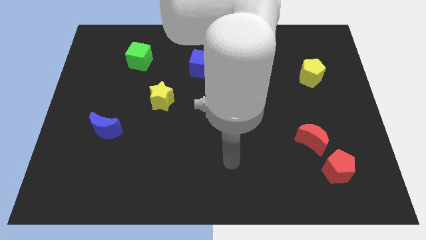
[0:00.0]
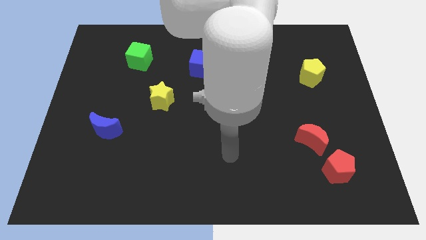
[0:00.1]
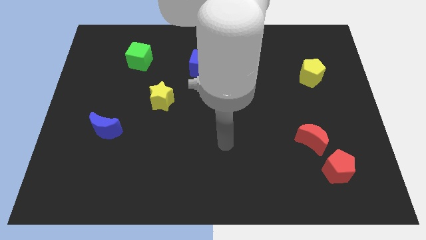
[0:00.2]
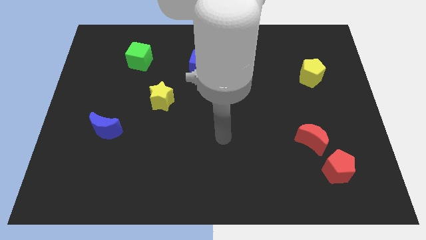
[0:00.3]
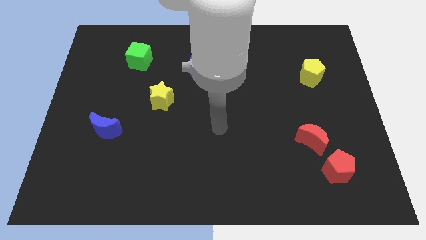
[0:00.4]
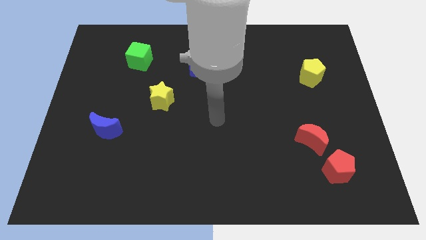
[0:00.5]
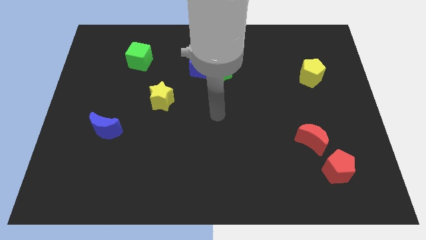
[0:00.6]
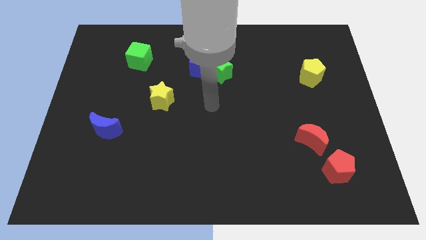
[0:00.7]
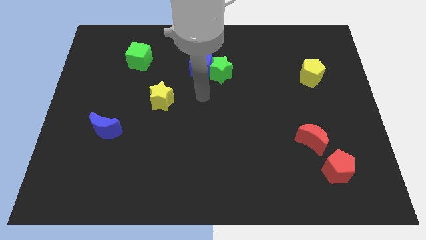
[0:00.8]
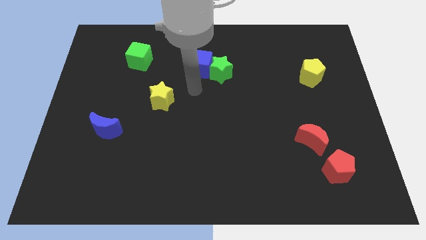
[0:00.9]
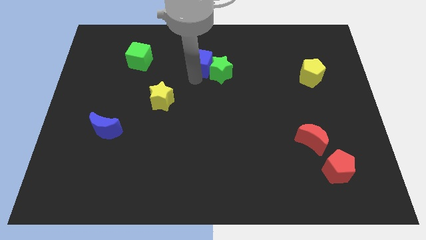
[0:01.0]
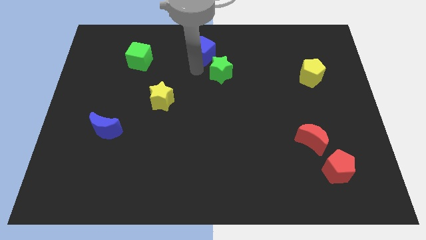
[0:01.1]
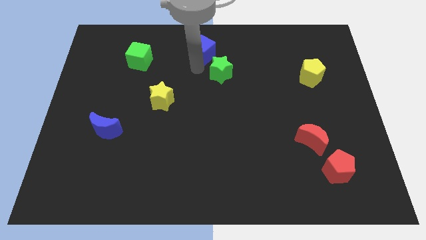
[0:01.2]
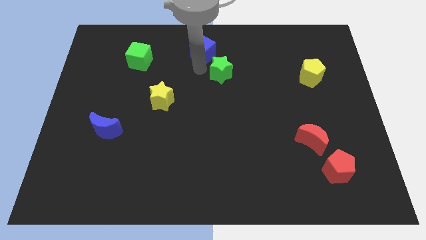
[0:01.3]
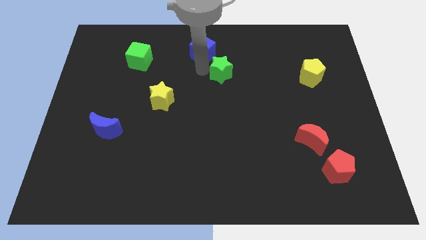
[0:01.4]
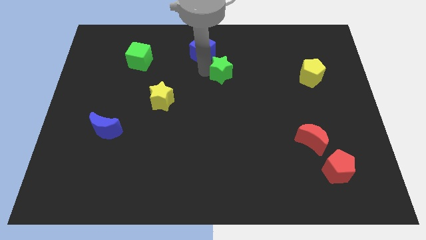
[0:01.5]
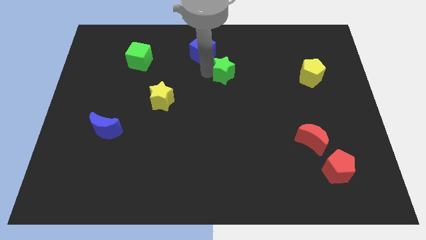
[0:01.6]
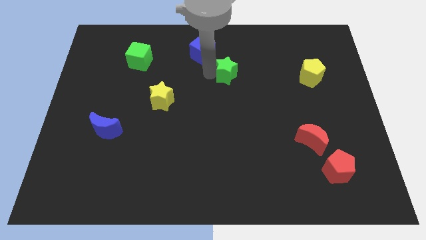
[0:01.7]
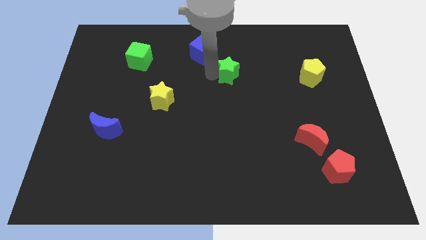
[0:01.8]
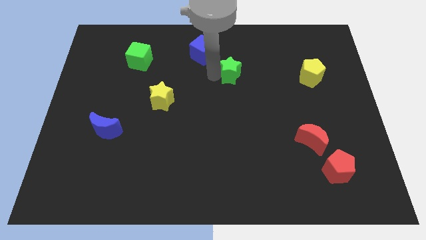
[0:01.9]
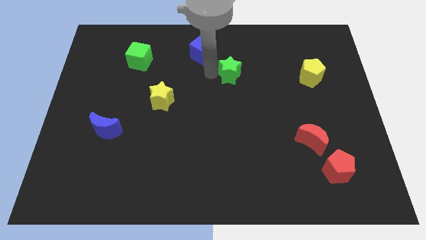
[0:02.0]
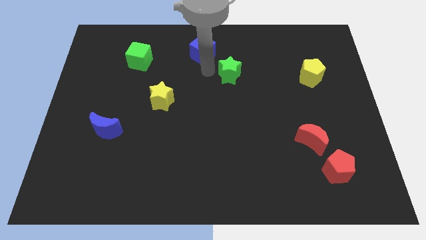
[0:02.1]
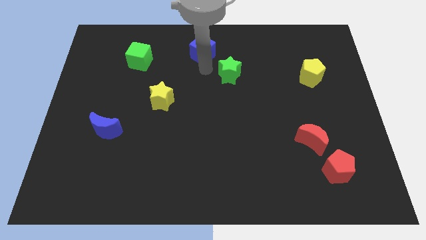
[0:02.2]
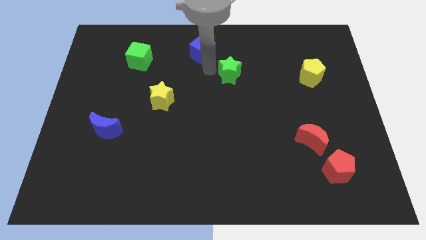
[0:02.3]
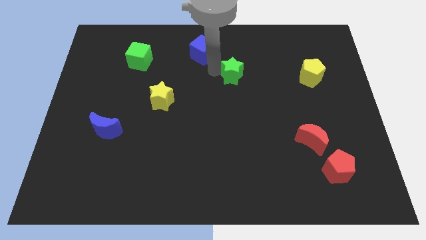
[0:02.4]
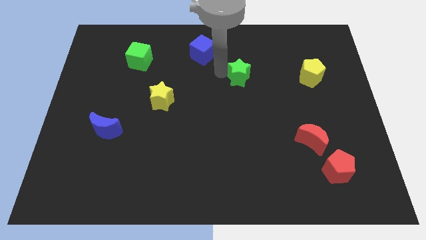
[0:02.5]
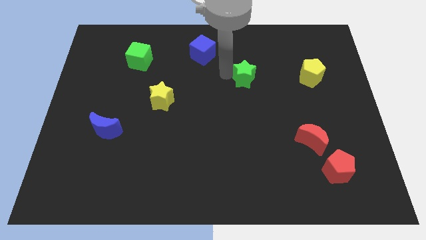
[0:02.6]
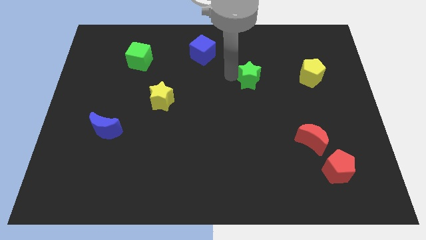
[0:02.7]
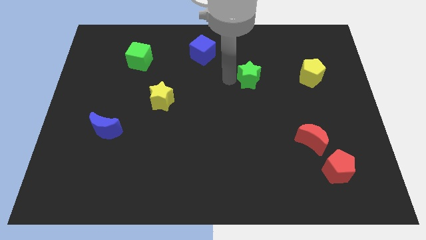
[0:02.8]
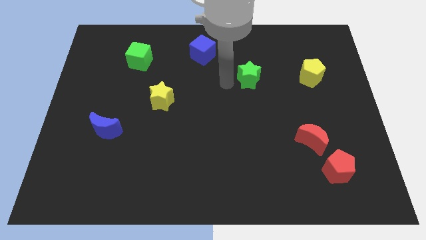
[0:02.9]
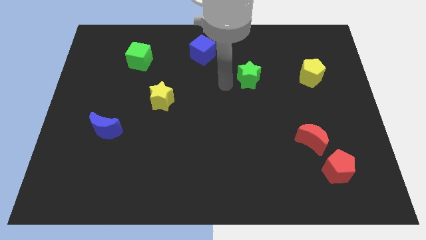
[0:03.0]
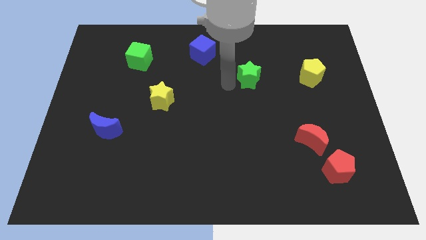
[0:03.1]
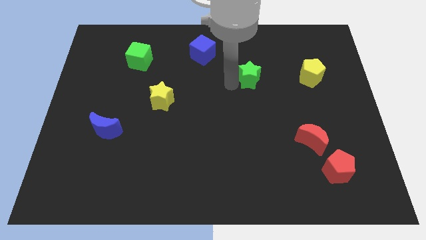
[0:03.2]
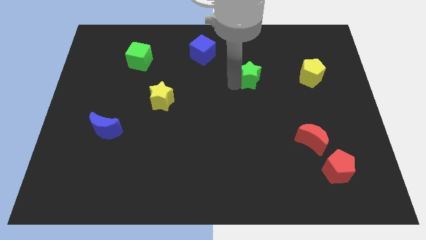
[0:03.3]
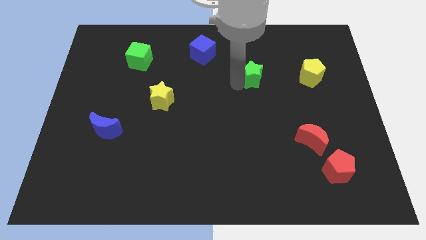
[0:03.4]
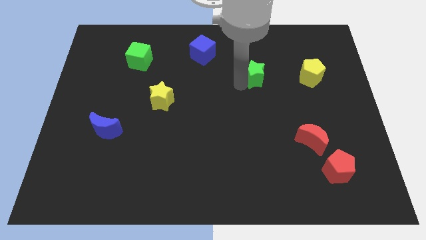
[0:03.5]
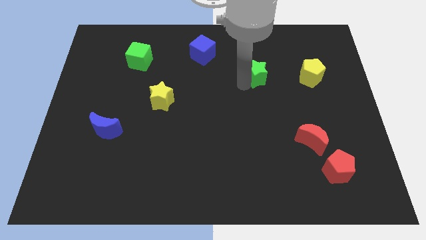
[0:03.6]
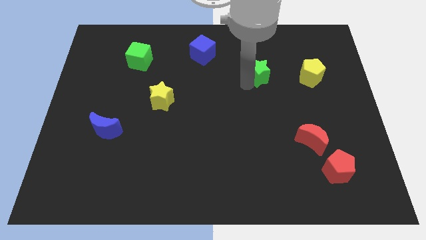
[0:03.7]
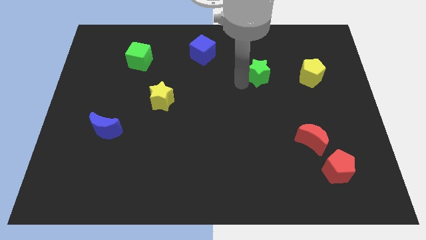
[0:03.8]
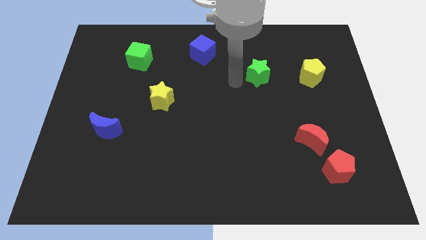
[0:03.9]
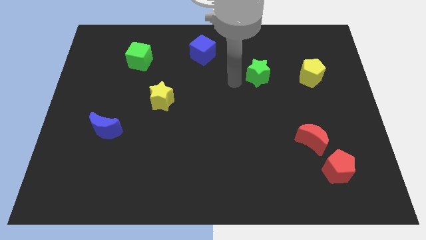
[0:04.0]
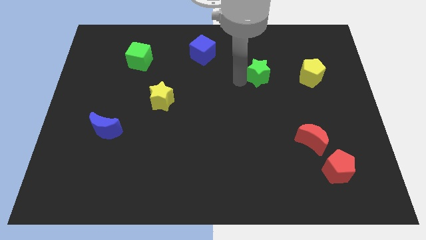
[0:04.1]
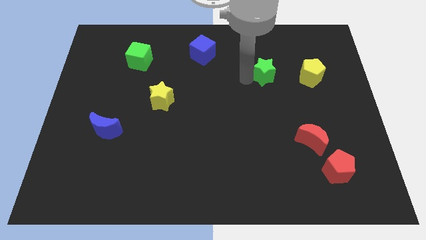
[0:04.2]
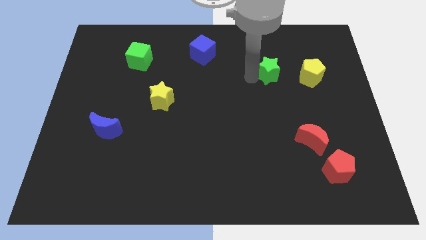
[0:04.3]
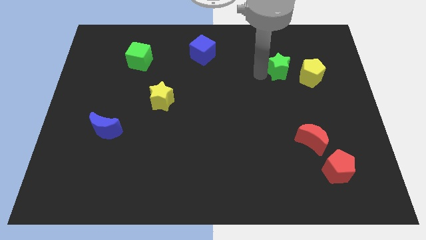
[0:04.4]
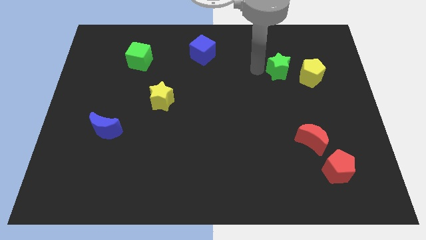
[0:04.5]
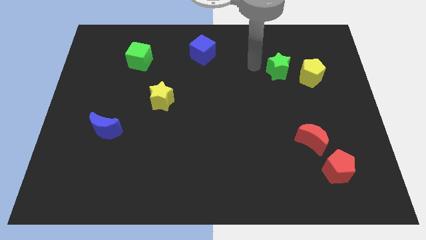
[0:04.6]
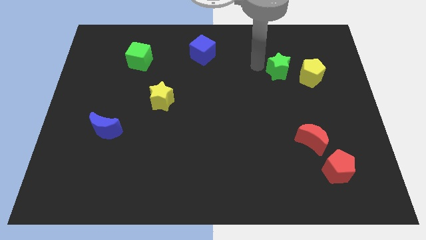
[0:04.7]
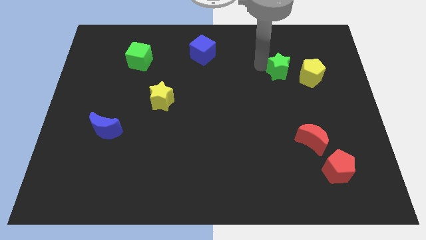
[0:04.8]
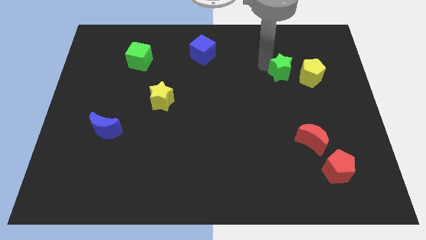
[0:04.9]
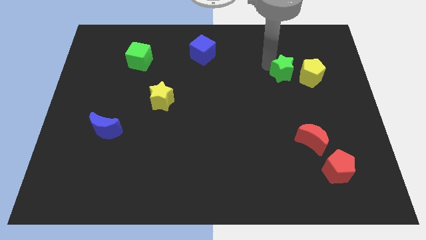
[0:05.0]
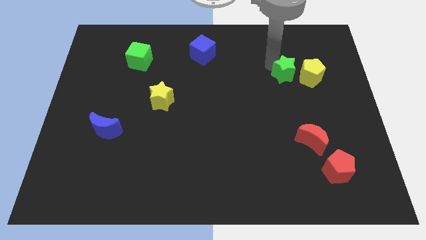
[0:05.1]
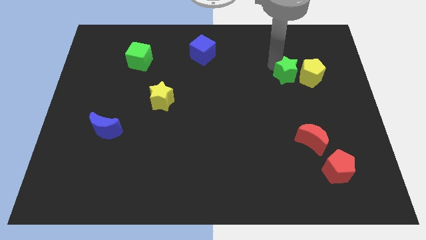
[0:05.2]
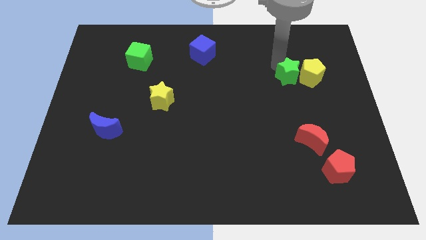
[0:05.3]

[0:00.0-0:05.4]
slide the green star towards the yellow pentagon

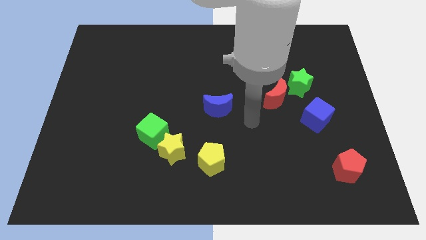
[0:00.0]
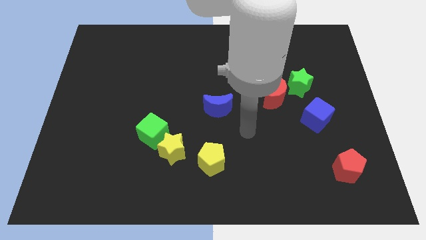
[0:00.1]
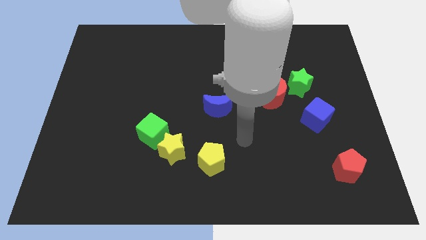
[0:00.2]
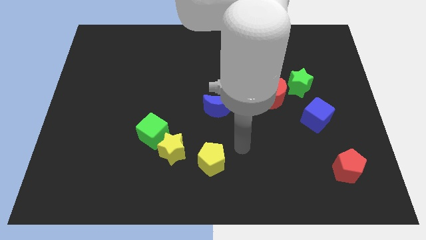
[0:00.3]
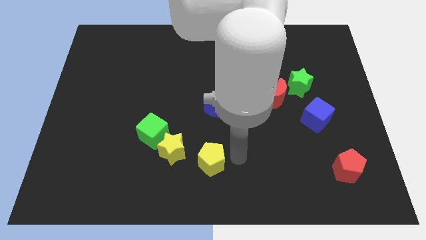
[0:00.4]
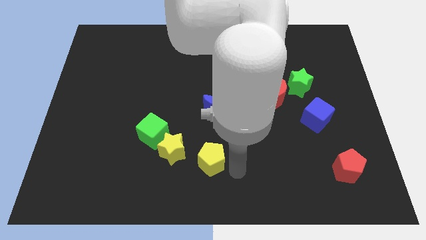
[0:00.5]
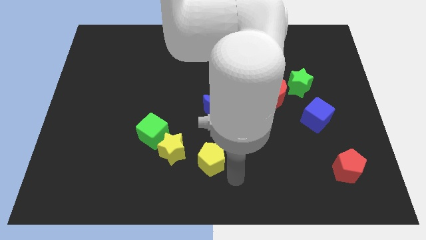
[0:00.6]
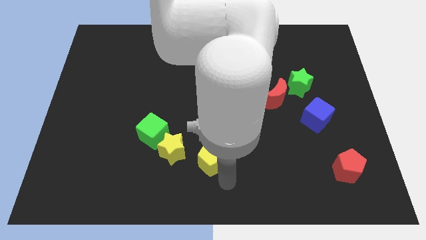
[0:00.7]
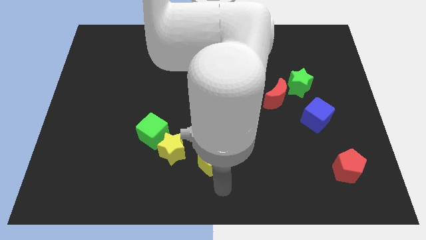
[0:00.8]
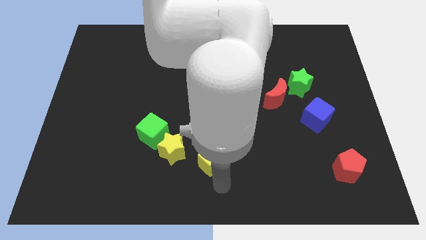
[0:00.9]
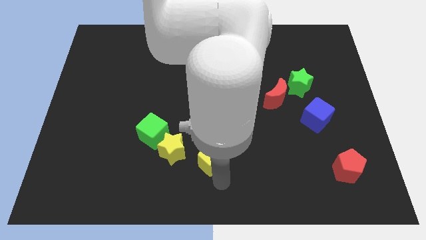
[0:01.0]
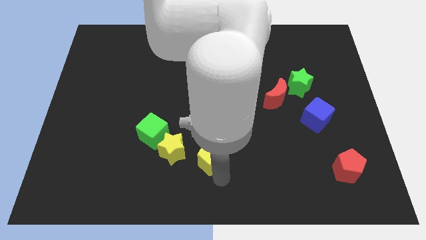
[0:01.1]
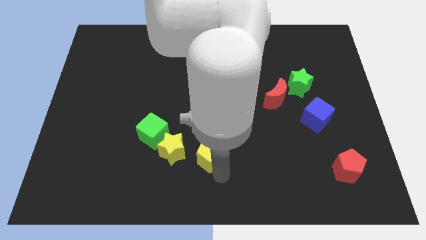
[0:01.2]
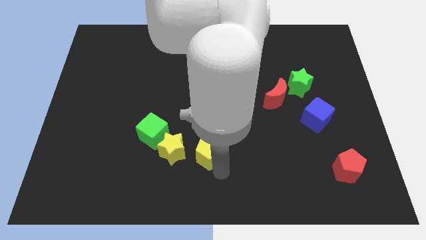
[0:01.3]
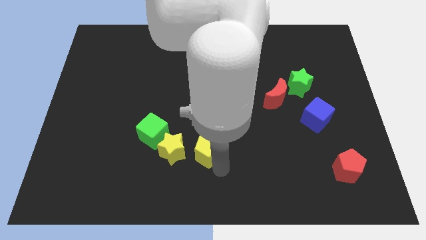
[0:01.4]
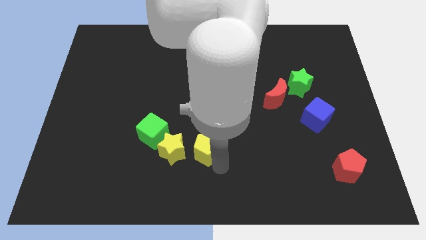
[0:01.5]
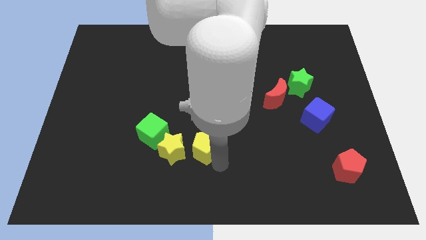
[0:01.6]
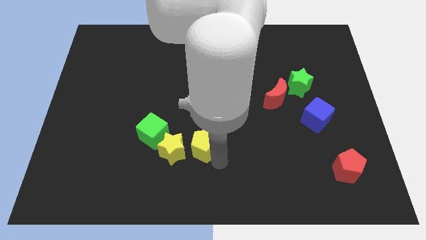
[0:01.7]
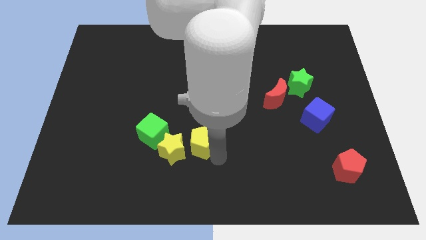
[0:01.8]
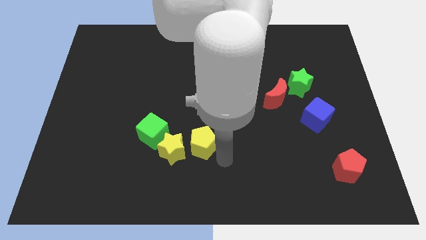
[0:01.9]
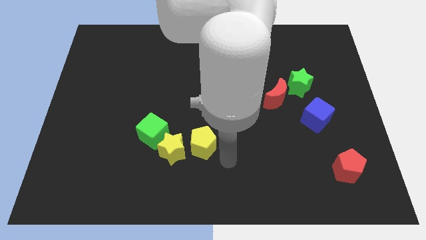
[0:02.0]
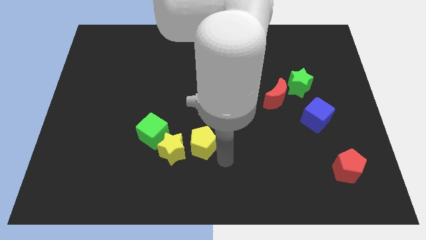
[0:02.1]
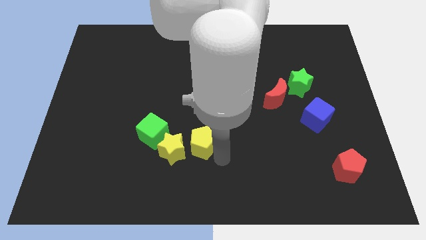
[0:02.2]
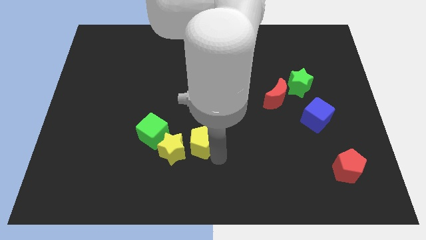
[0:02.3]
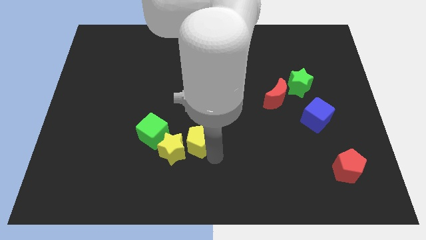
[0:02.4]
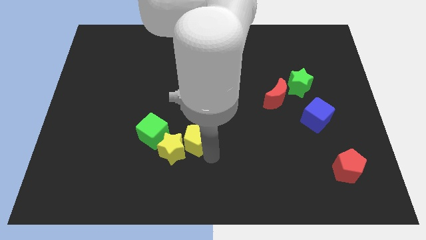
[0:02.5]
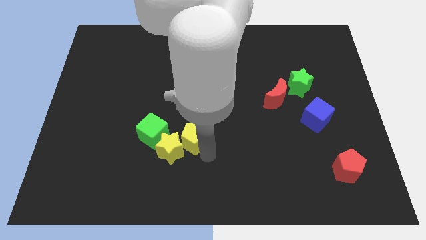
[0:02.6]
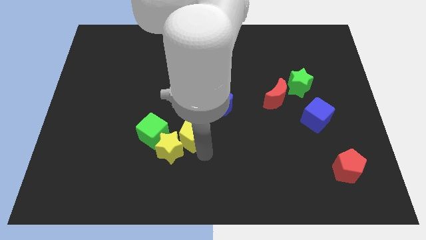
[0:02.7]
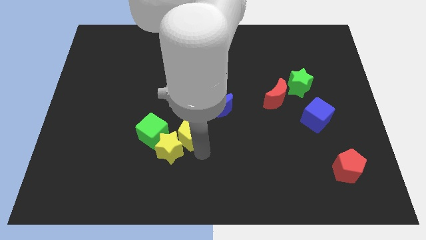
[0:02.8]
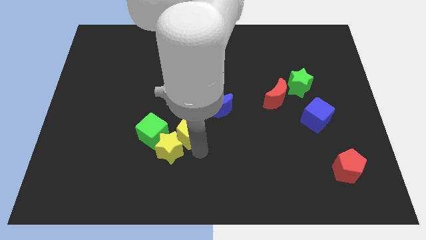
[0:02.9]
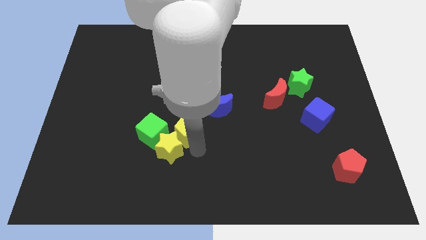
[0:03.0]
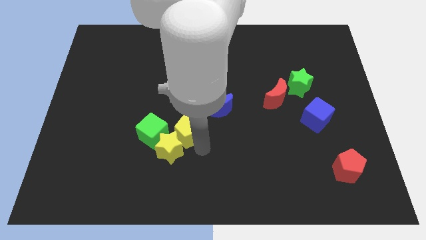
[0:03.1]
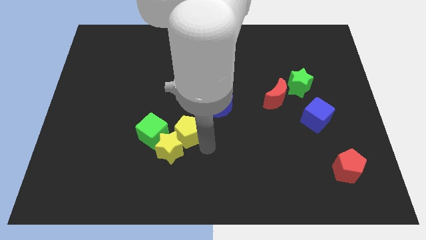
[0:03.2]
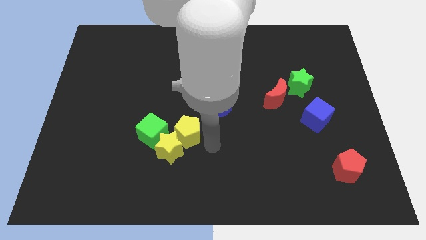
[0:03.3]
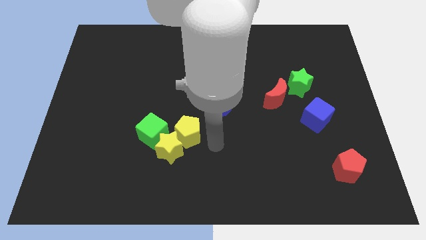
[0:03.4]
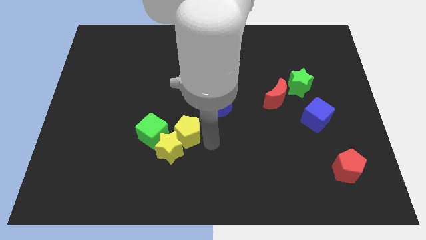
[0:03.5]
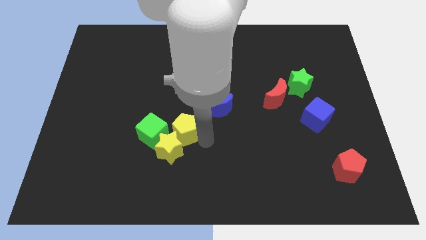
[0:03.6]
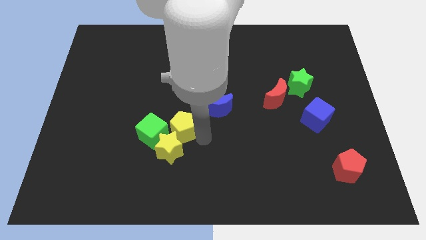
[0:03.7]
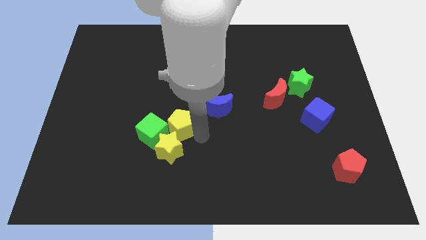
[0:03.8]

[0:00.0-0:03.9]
push the yellow pentagon towards the green cube
